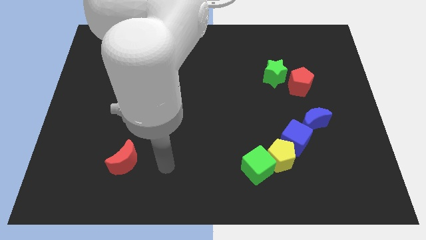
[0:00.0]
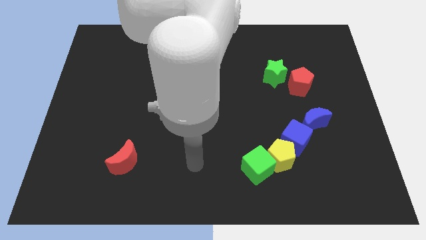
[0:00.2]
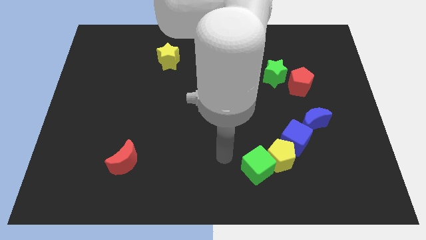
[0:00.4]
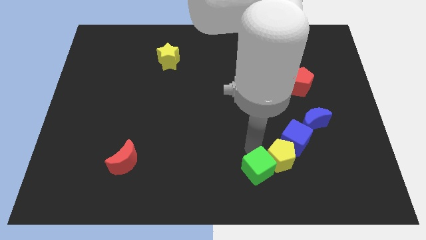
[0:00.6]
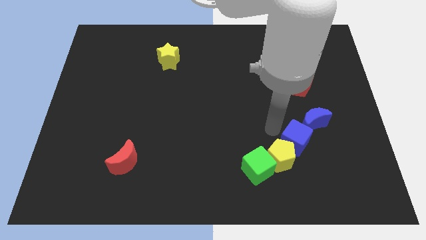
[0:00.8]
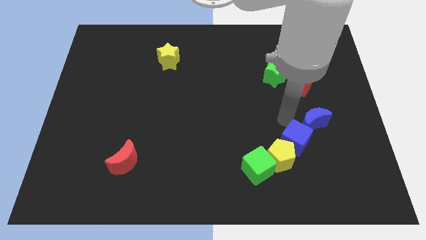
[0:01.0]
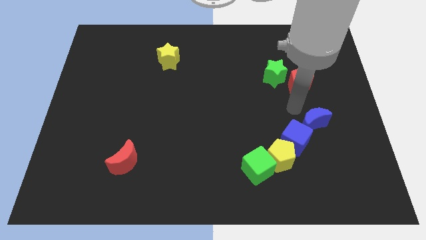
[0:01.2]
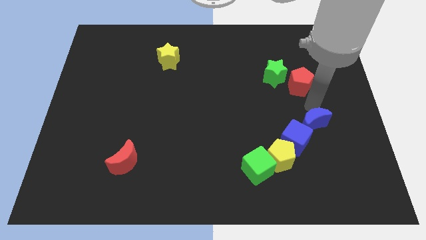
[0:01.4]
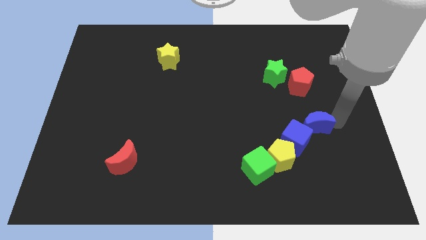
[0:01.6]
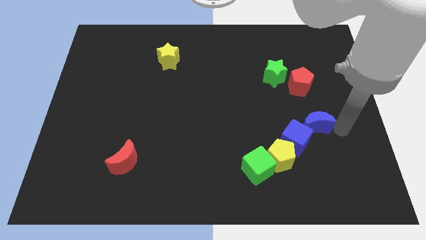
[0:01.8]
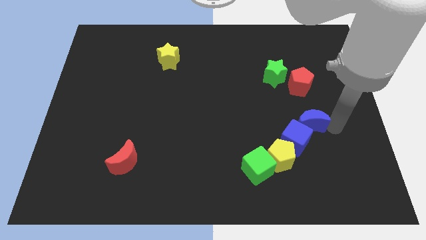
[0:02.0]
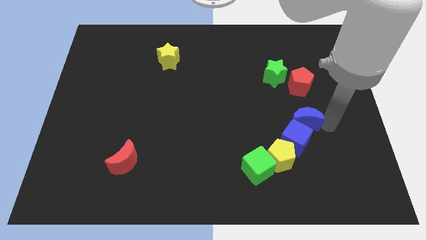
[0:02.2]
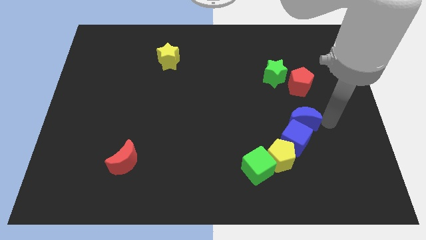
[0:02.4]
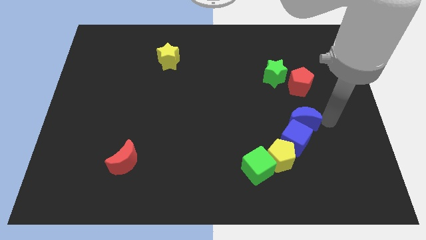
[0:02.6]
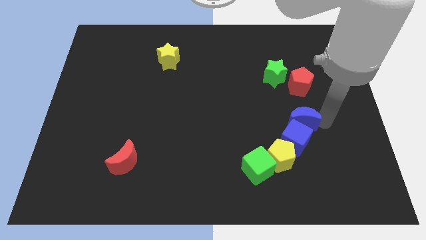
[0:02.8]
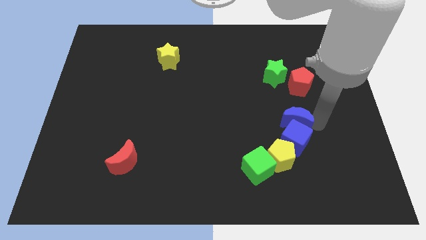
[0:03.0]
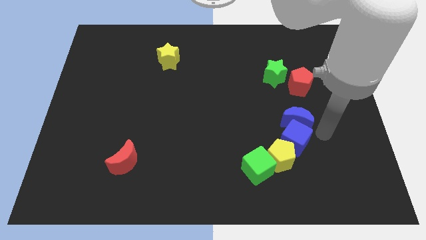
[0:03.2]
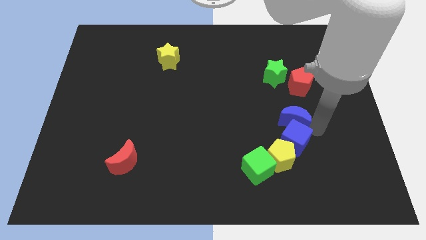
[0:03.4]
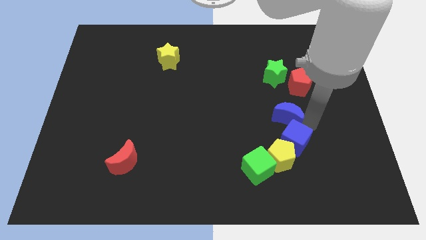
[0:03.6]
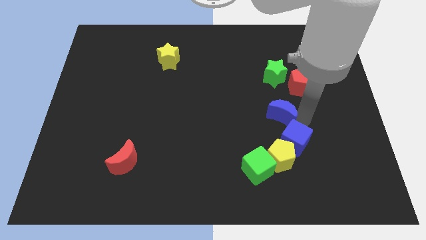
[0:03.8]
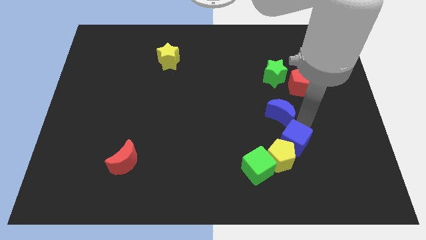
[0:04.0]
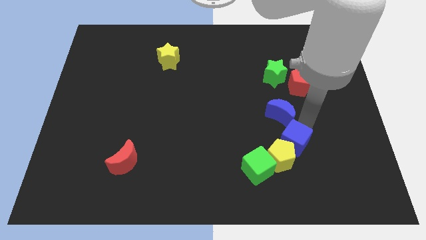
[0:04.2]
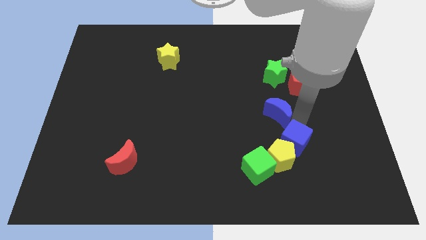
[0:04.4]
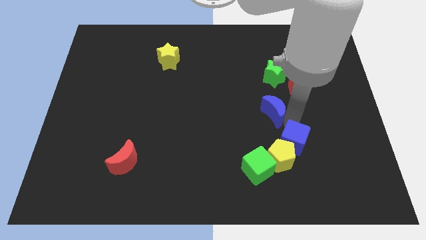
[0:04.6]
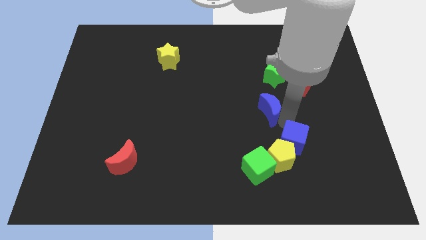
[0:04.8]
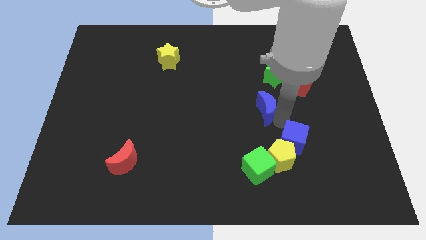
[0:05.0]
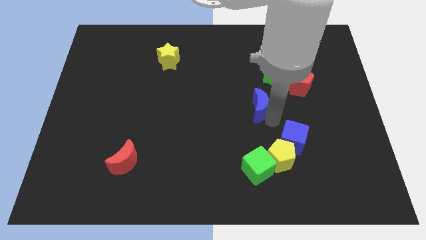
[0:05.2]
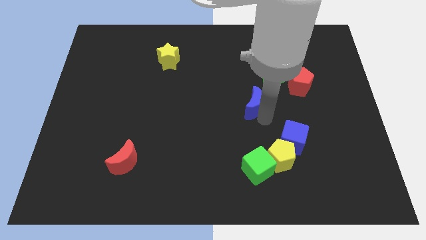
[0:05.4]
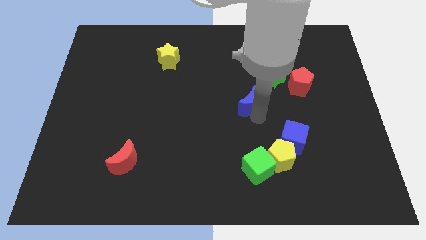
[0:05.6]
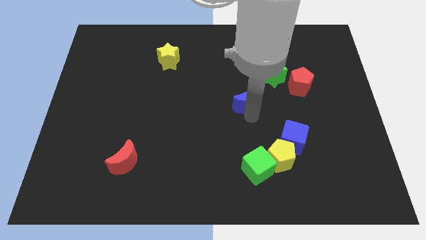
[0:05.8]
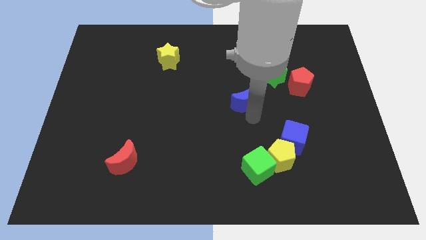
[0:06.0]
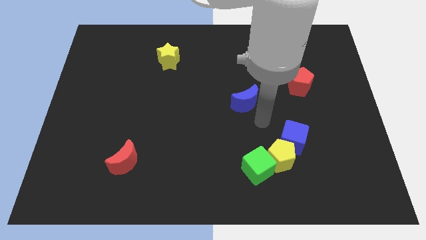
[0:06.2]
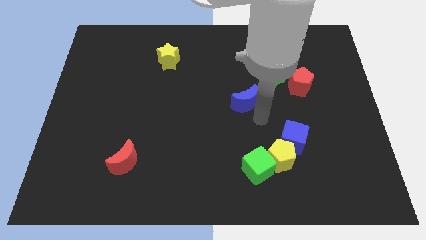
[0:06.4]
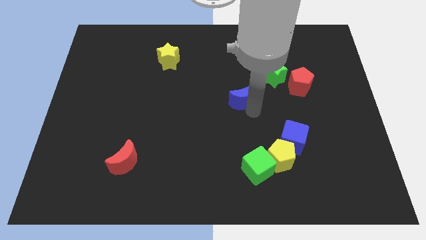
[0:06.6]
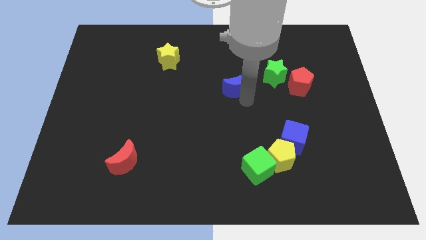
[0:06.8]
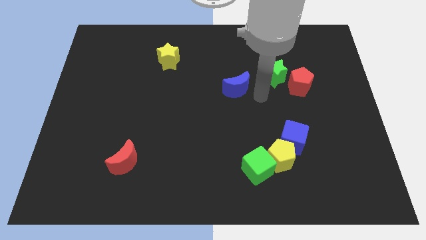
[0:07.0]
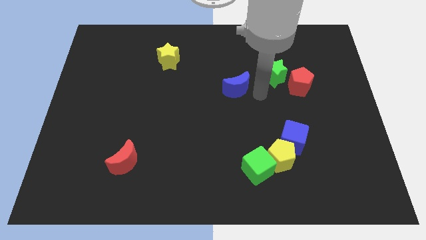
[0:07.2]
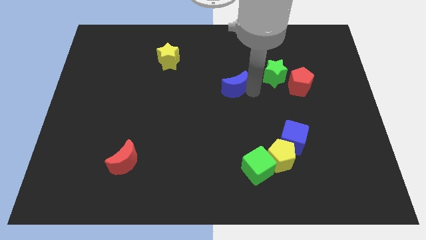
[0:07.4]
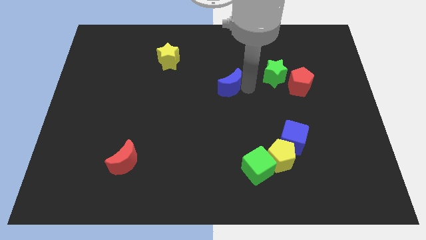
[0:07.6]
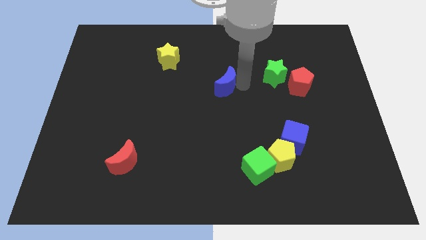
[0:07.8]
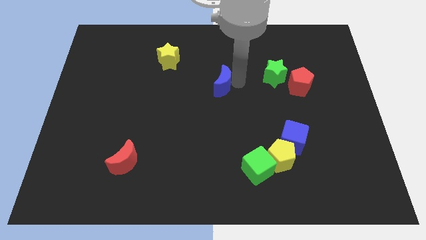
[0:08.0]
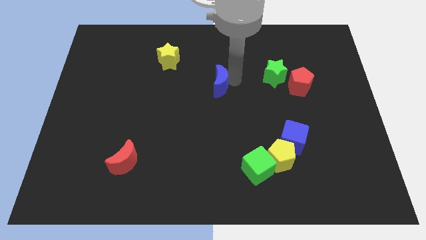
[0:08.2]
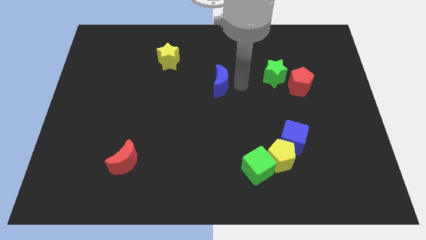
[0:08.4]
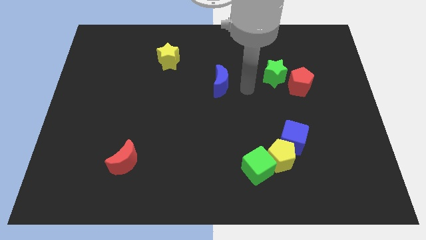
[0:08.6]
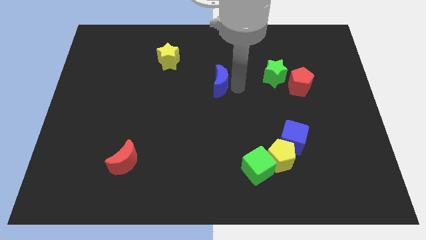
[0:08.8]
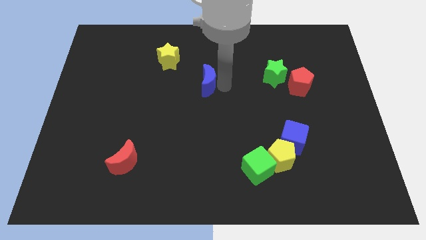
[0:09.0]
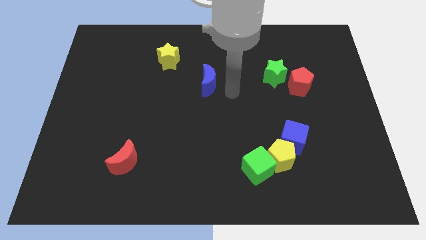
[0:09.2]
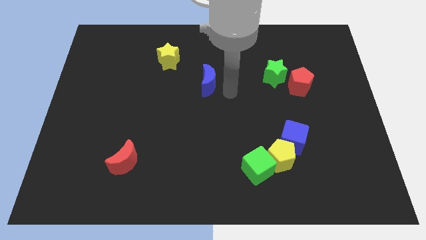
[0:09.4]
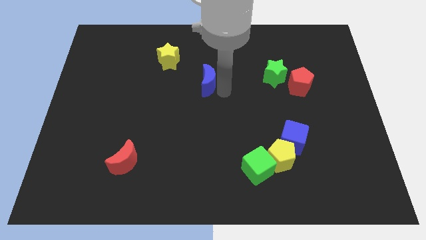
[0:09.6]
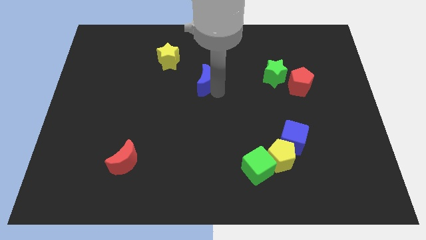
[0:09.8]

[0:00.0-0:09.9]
slide the blue moon to the bottom right side of the yellow star

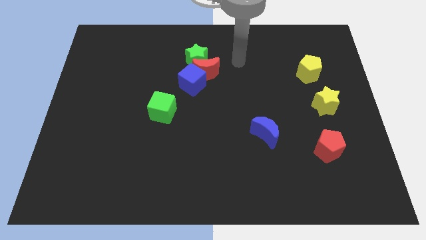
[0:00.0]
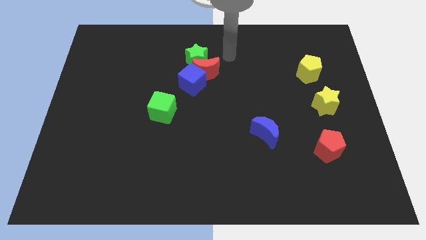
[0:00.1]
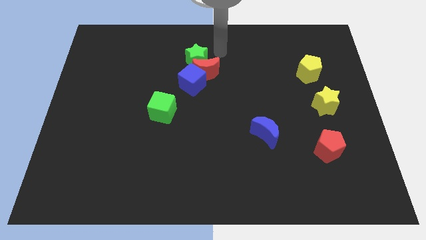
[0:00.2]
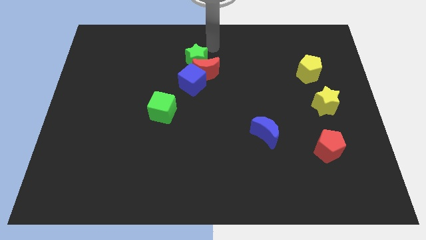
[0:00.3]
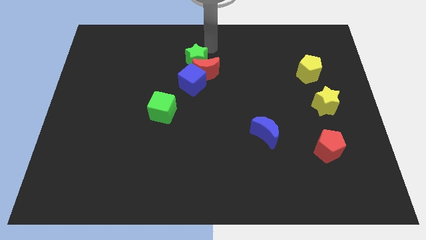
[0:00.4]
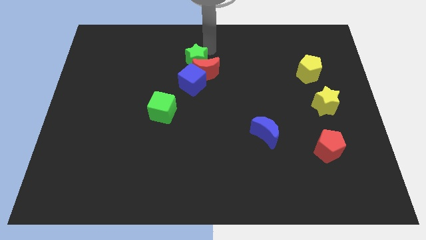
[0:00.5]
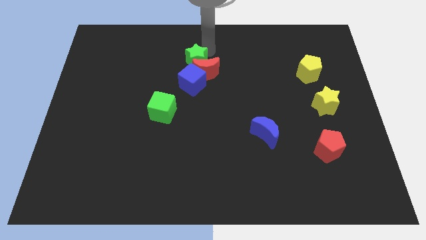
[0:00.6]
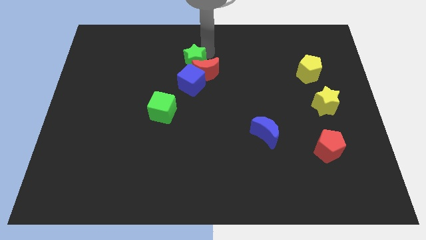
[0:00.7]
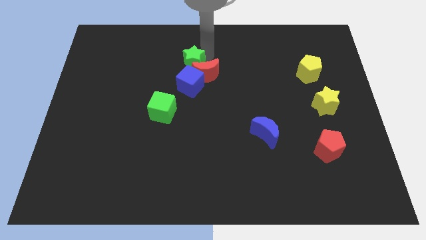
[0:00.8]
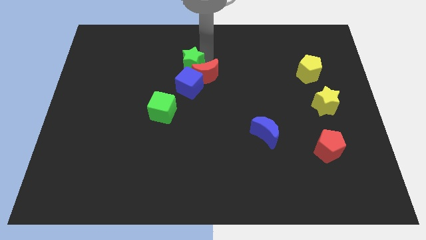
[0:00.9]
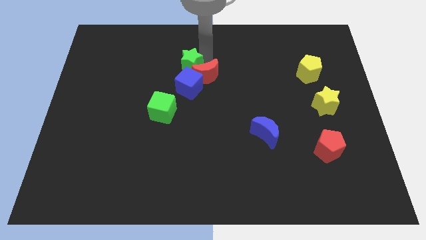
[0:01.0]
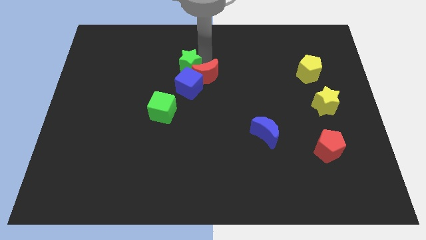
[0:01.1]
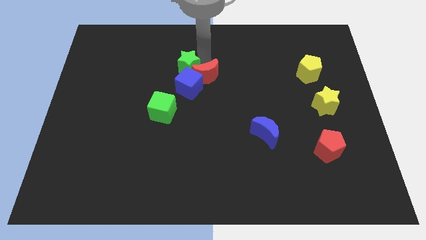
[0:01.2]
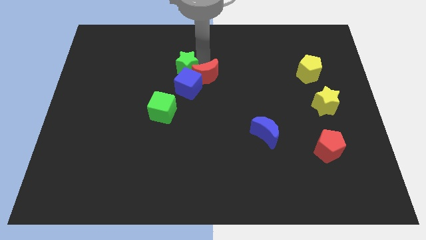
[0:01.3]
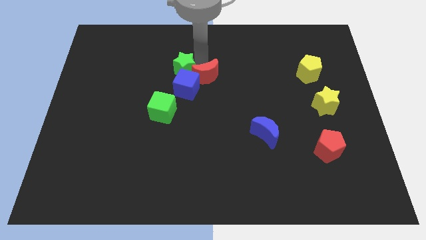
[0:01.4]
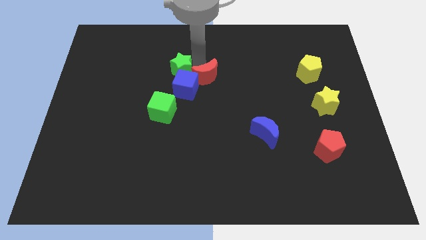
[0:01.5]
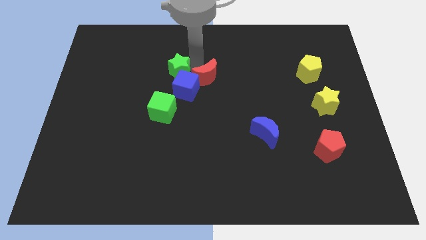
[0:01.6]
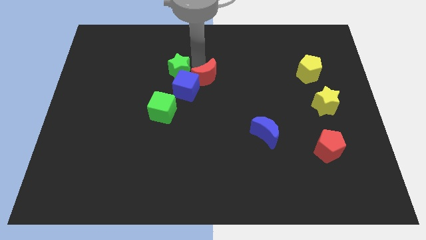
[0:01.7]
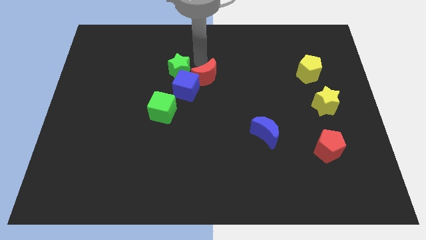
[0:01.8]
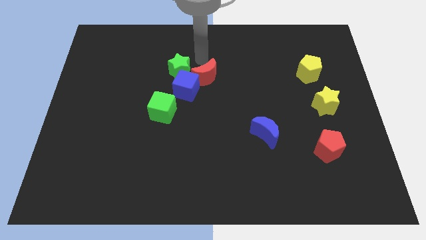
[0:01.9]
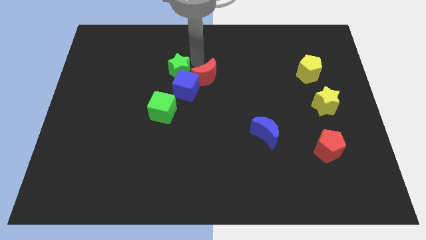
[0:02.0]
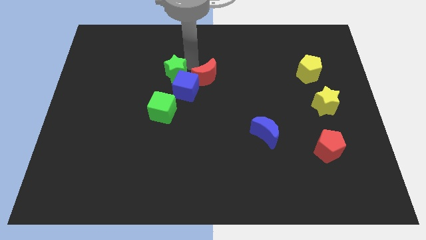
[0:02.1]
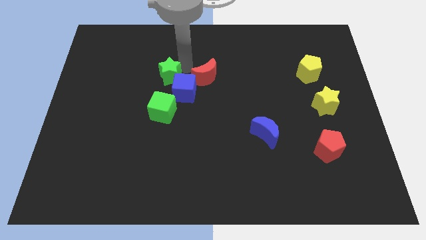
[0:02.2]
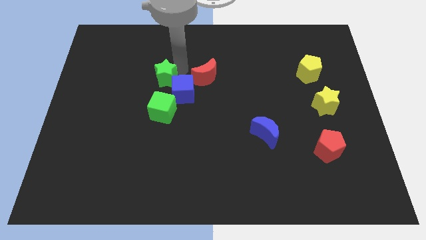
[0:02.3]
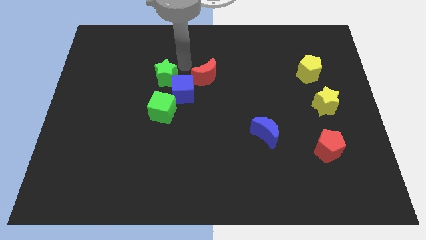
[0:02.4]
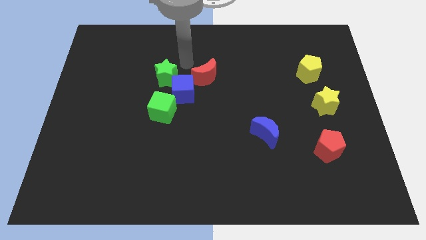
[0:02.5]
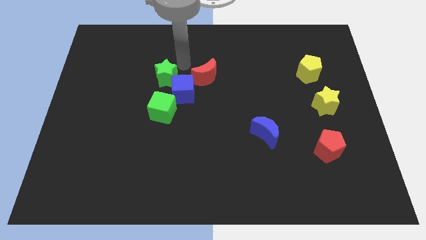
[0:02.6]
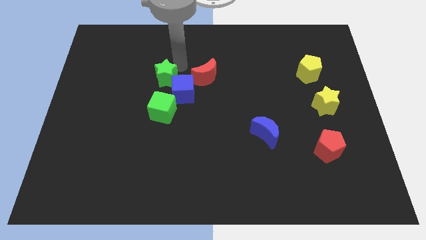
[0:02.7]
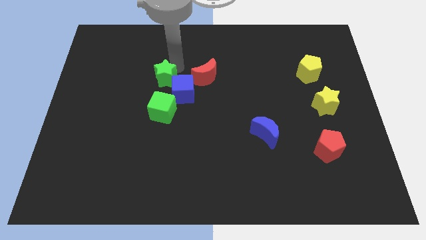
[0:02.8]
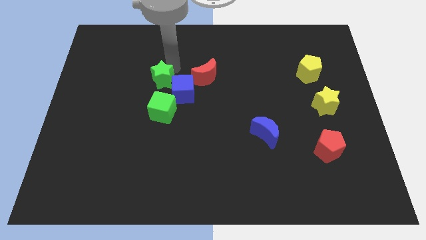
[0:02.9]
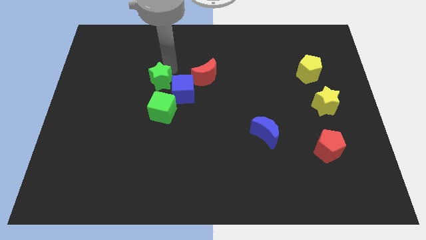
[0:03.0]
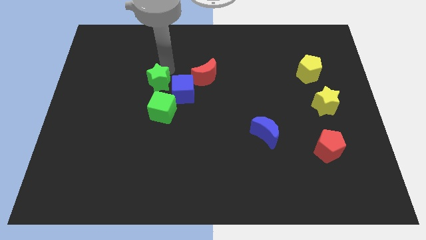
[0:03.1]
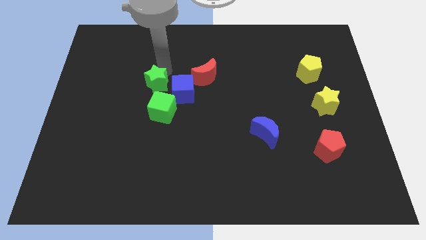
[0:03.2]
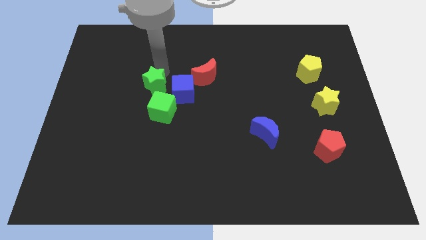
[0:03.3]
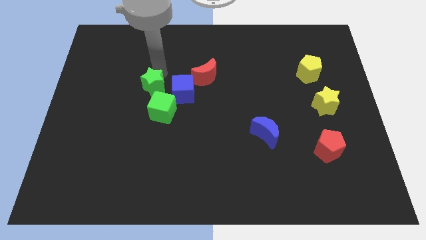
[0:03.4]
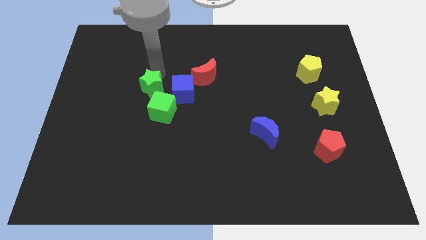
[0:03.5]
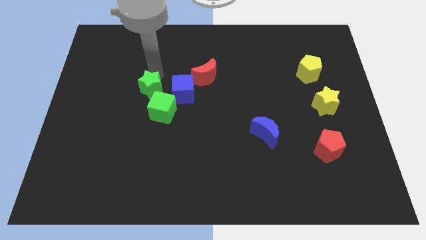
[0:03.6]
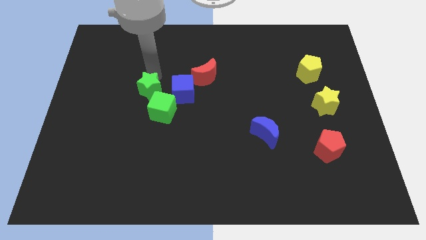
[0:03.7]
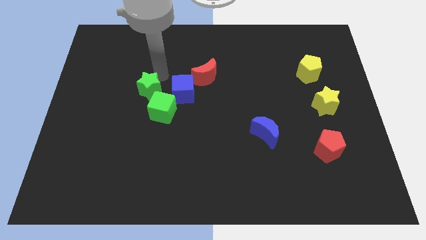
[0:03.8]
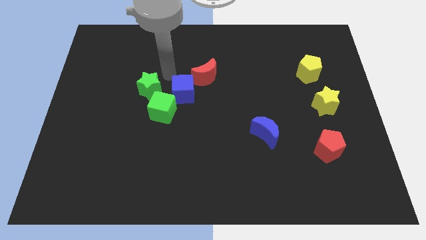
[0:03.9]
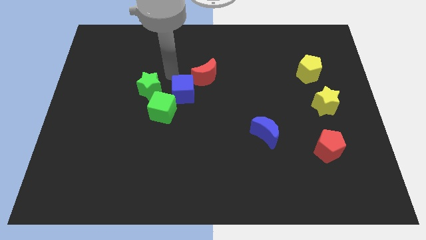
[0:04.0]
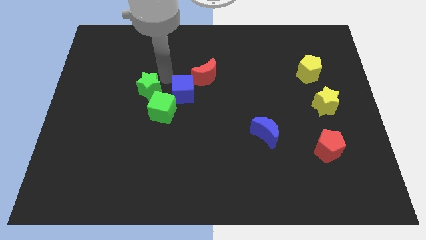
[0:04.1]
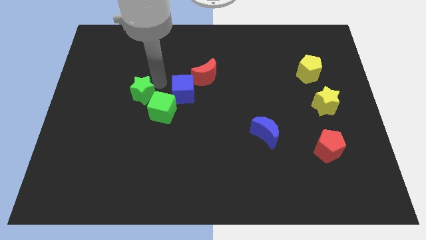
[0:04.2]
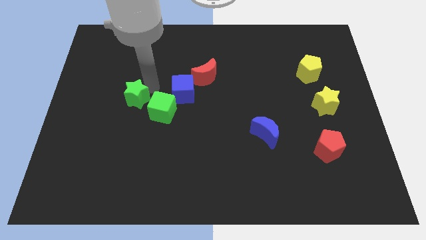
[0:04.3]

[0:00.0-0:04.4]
slide the green star to the left side of the green cube
